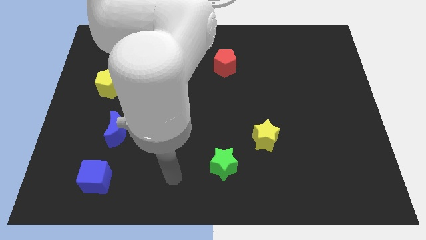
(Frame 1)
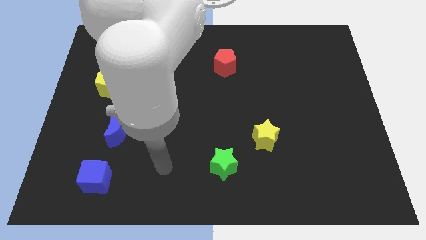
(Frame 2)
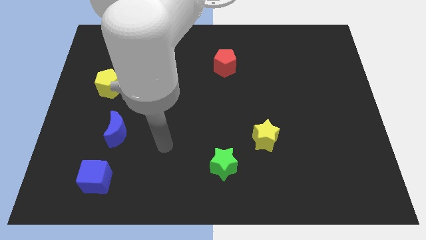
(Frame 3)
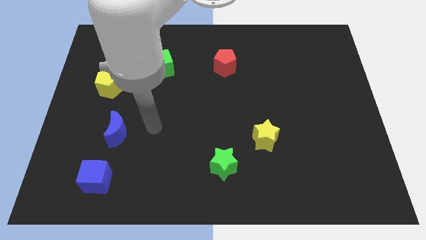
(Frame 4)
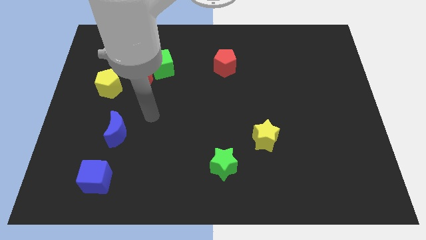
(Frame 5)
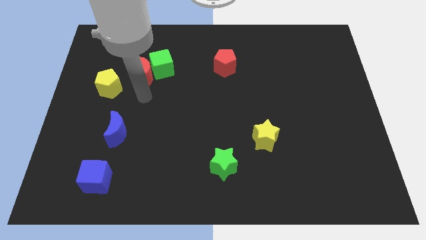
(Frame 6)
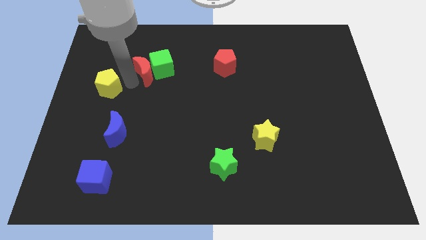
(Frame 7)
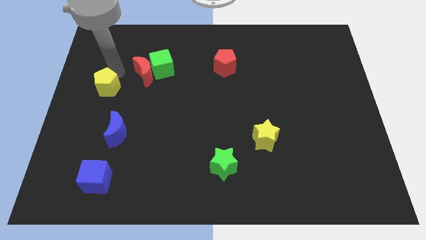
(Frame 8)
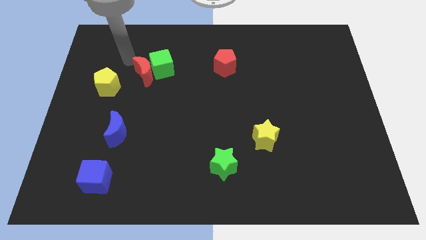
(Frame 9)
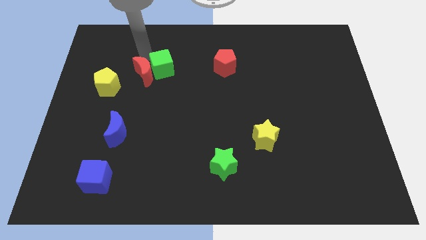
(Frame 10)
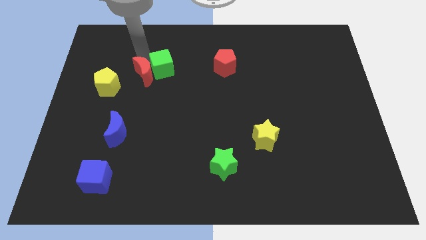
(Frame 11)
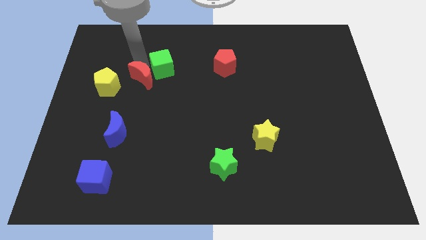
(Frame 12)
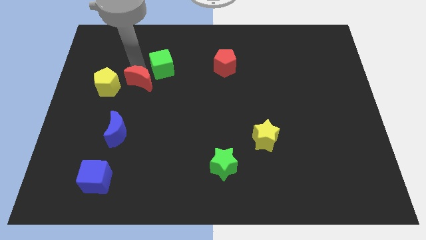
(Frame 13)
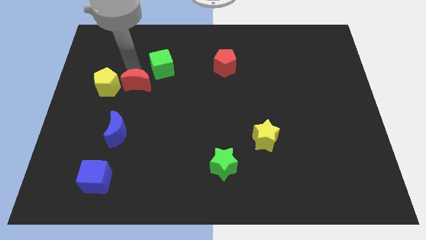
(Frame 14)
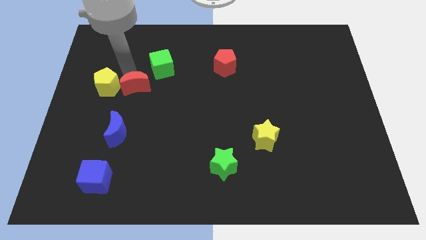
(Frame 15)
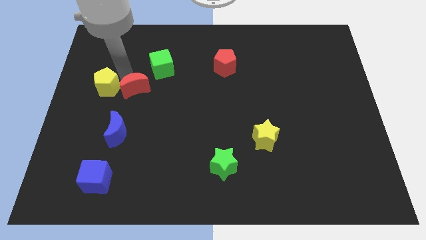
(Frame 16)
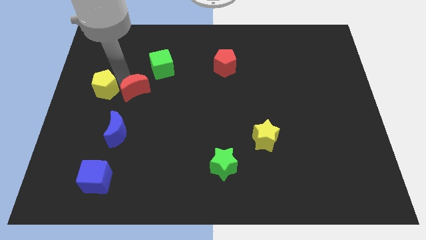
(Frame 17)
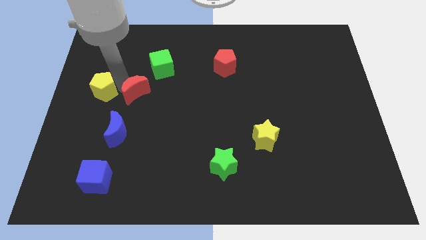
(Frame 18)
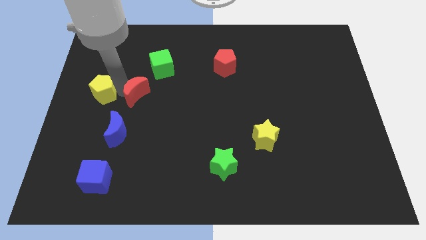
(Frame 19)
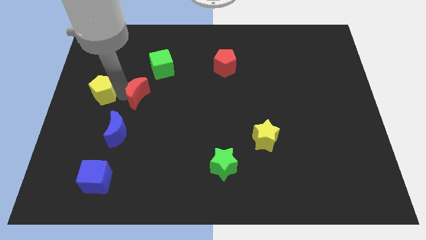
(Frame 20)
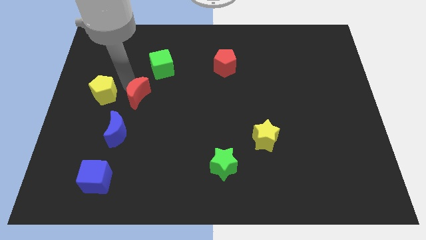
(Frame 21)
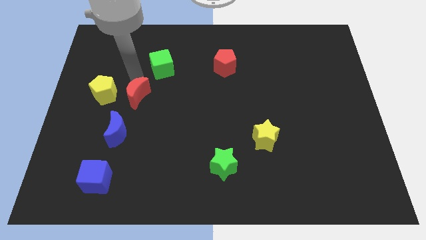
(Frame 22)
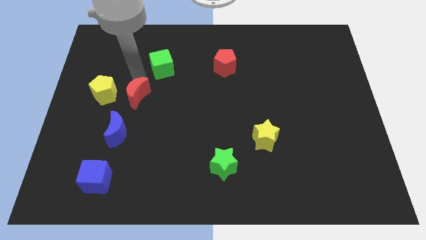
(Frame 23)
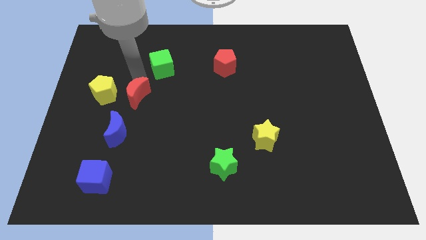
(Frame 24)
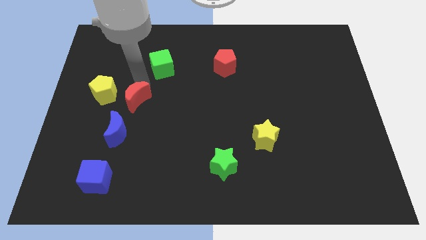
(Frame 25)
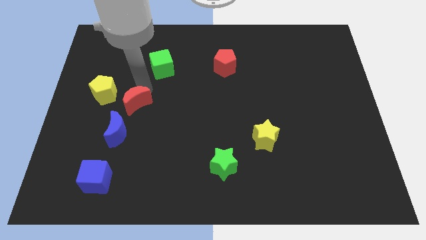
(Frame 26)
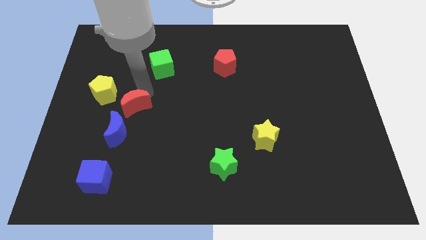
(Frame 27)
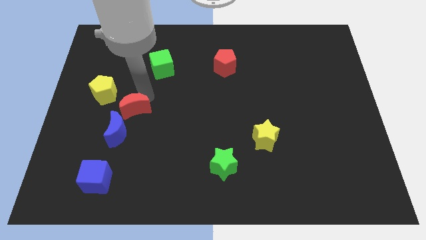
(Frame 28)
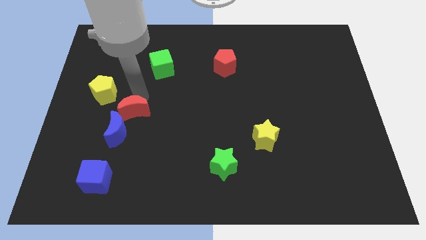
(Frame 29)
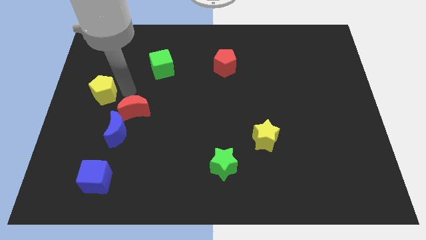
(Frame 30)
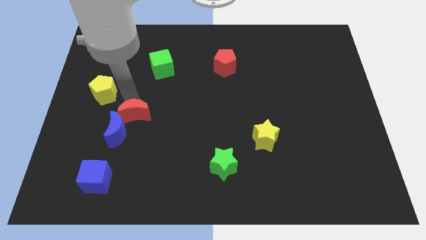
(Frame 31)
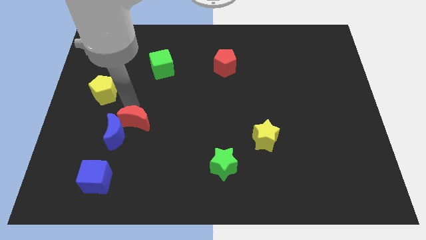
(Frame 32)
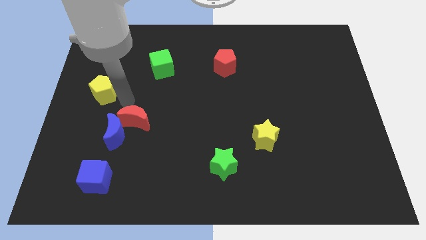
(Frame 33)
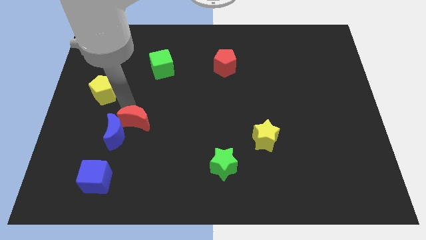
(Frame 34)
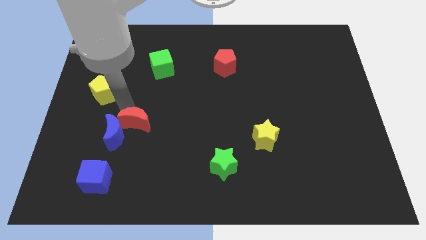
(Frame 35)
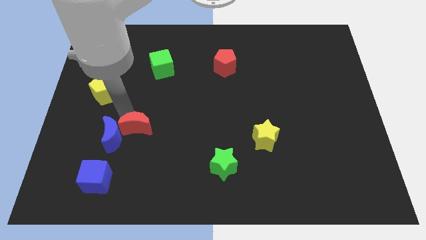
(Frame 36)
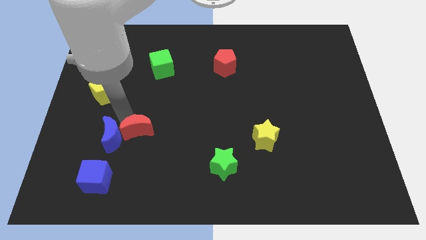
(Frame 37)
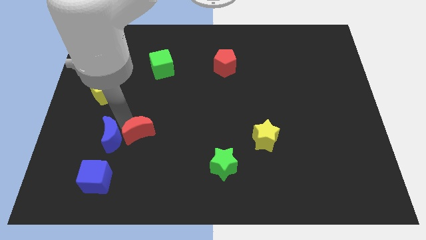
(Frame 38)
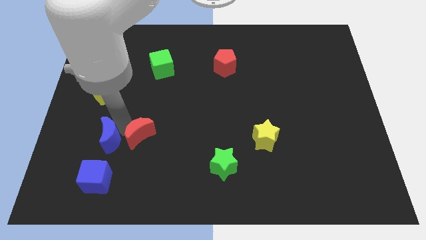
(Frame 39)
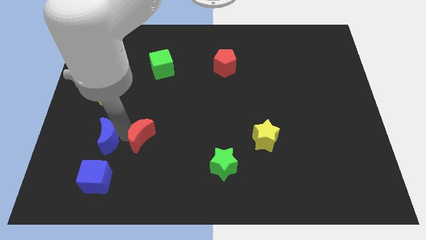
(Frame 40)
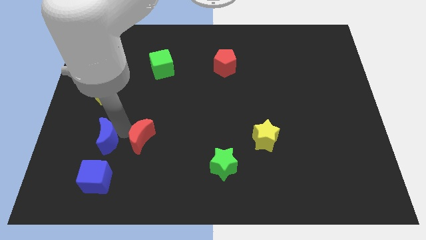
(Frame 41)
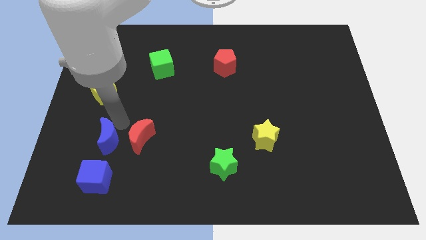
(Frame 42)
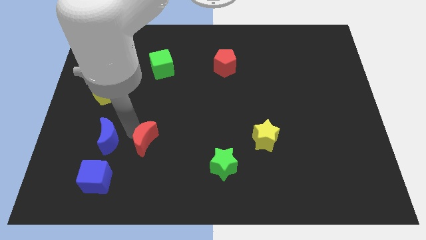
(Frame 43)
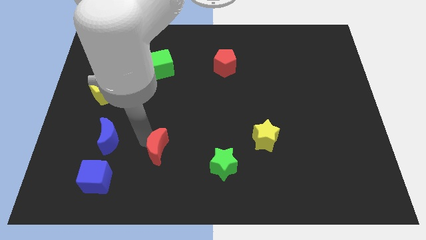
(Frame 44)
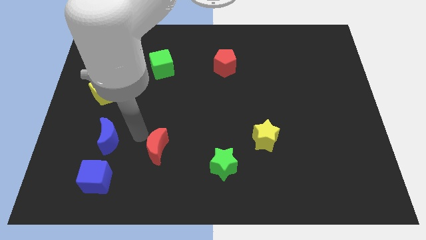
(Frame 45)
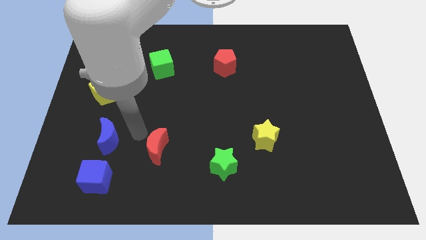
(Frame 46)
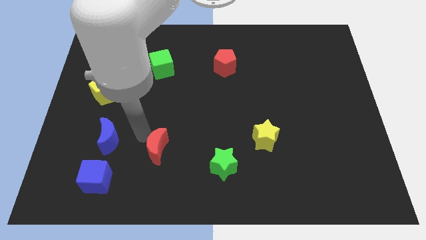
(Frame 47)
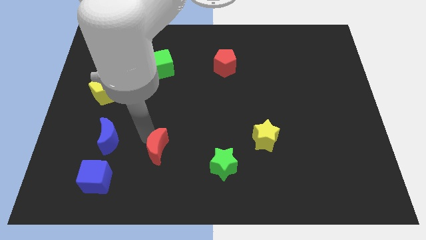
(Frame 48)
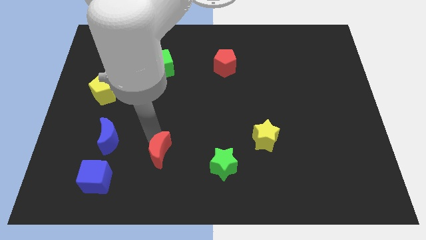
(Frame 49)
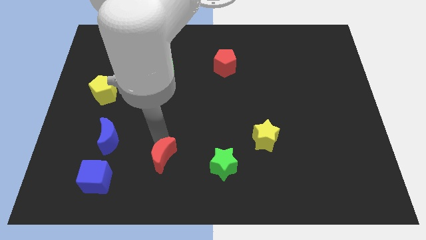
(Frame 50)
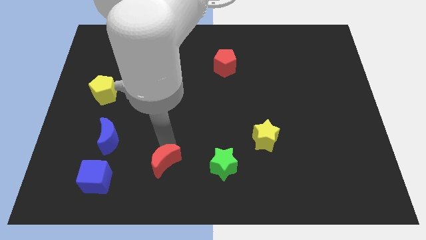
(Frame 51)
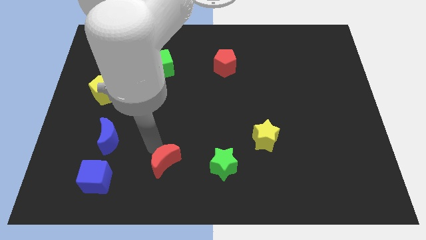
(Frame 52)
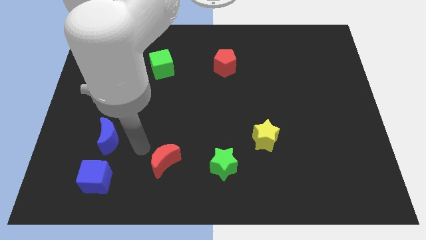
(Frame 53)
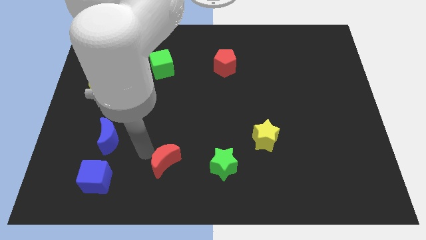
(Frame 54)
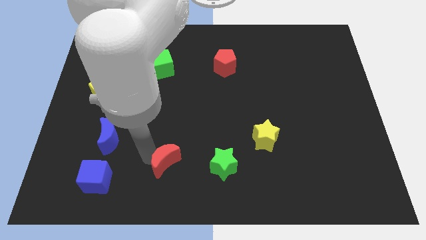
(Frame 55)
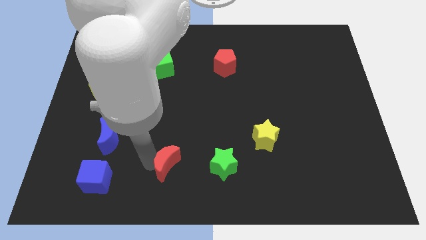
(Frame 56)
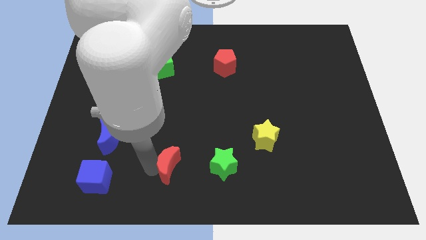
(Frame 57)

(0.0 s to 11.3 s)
push the red moon to the bottom

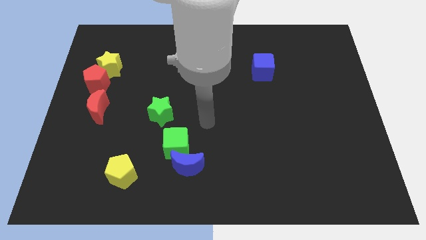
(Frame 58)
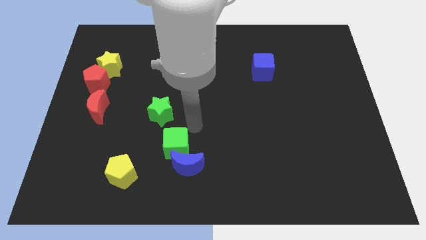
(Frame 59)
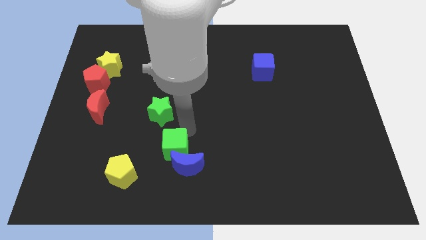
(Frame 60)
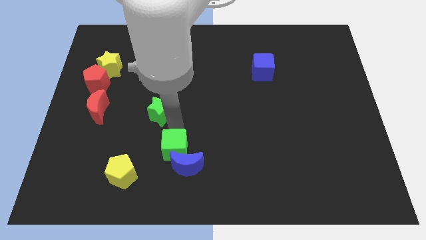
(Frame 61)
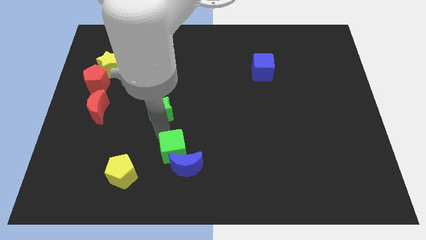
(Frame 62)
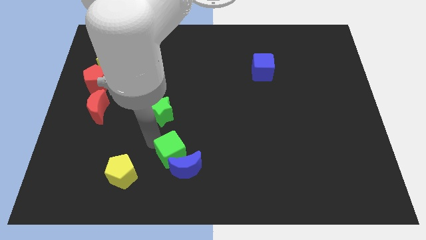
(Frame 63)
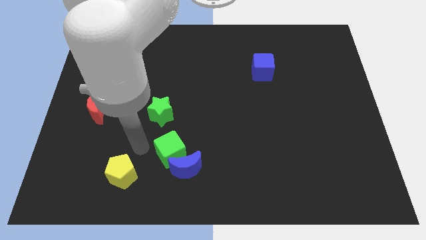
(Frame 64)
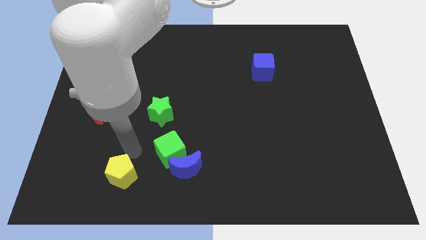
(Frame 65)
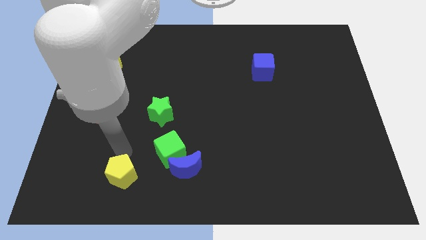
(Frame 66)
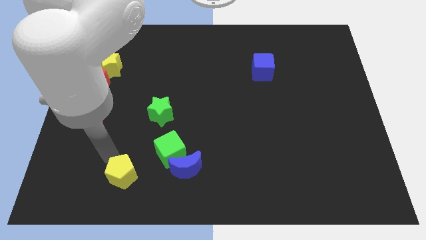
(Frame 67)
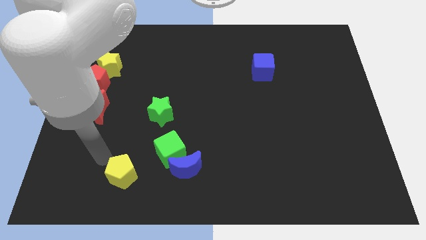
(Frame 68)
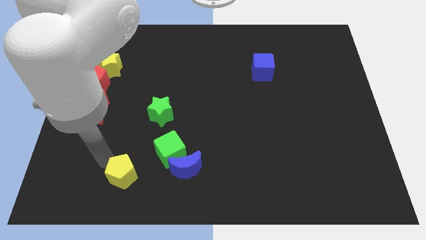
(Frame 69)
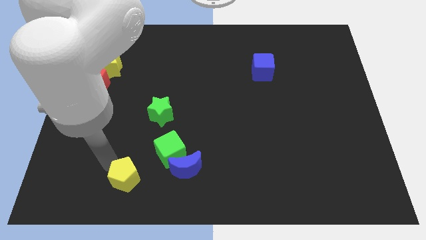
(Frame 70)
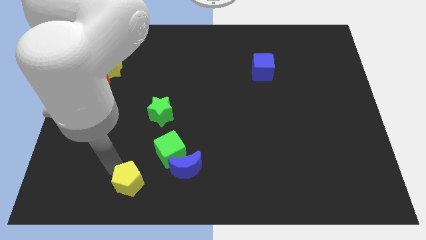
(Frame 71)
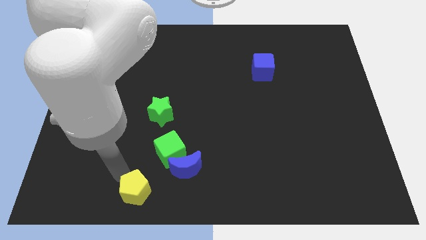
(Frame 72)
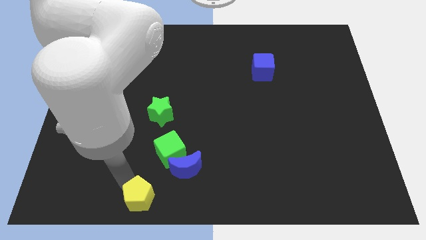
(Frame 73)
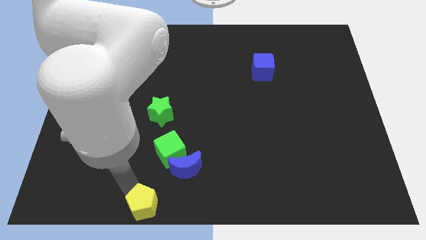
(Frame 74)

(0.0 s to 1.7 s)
put the yellow pentagon to the bottom side
